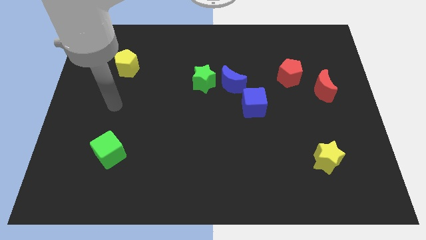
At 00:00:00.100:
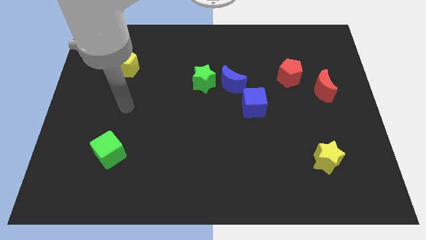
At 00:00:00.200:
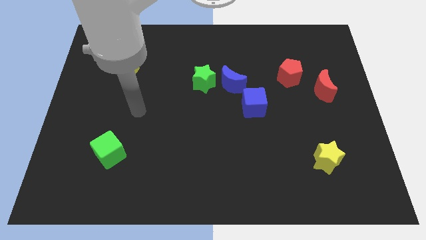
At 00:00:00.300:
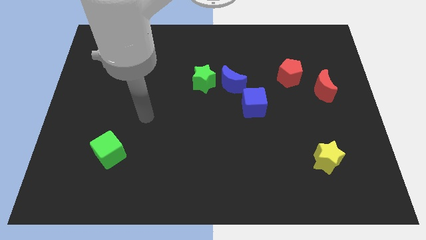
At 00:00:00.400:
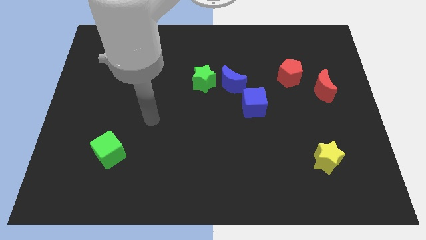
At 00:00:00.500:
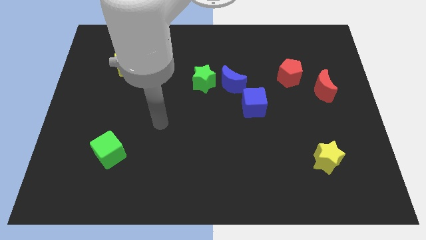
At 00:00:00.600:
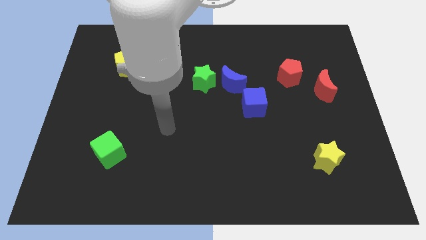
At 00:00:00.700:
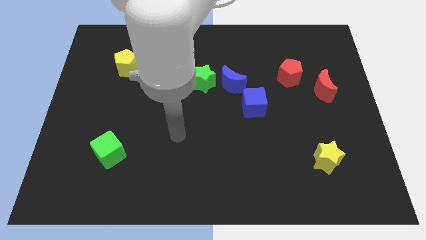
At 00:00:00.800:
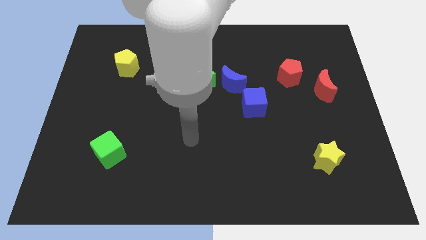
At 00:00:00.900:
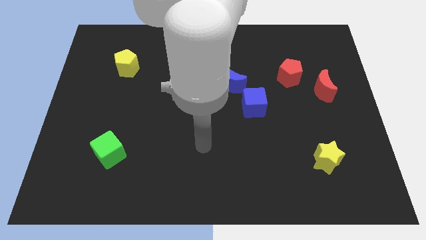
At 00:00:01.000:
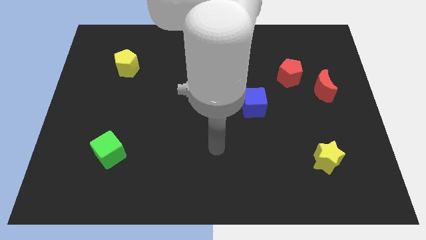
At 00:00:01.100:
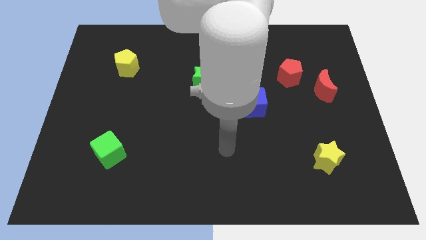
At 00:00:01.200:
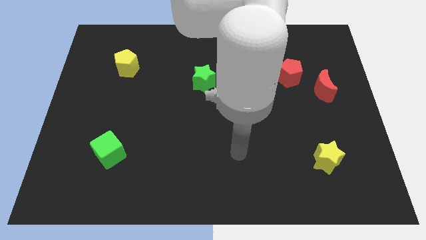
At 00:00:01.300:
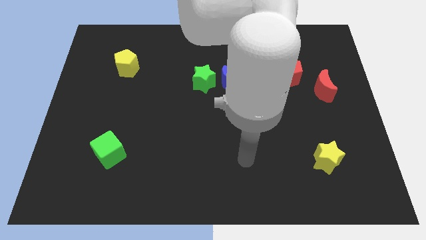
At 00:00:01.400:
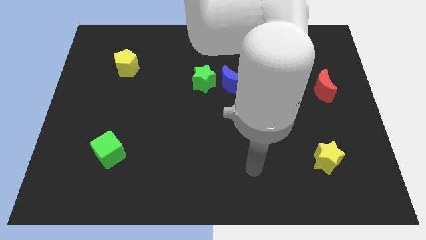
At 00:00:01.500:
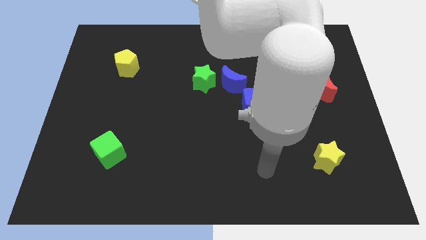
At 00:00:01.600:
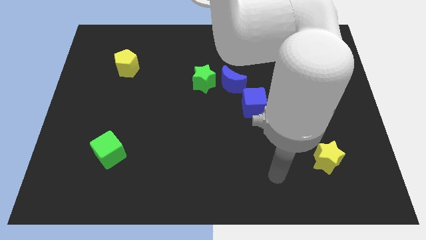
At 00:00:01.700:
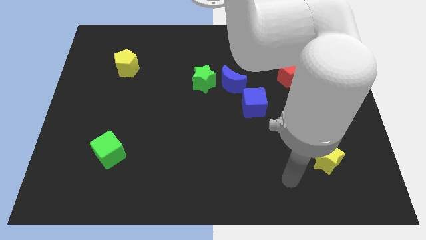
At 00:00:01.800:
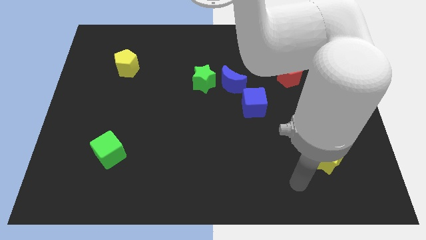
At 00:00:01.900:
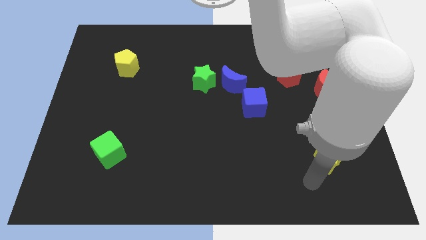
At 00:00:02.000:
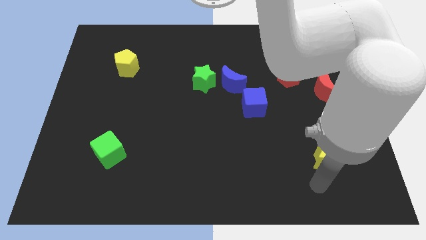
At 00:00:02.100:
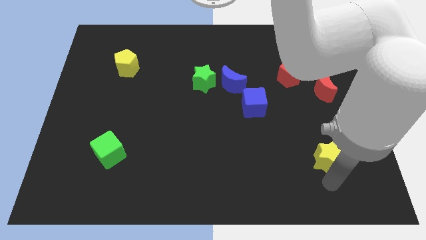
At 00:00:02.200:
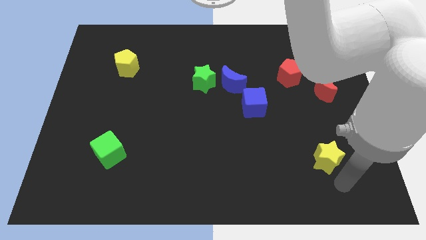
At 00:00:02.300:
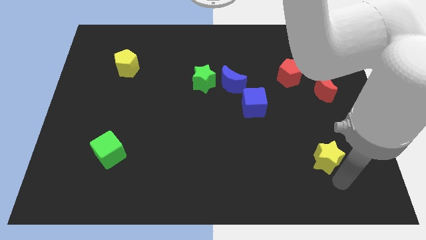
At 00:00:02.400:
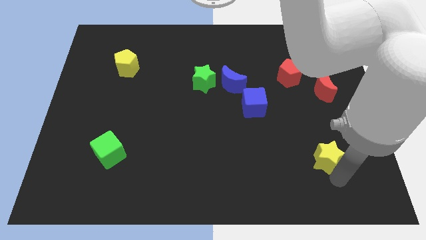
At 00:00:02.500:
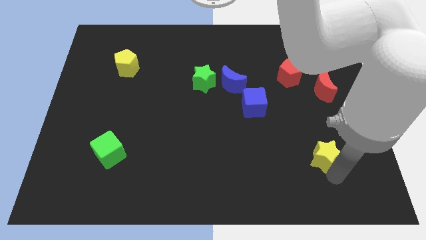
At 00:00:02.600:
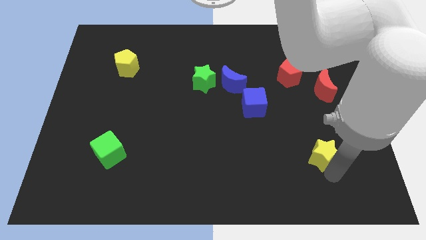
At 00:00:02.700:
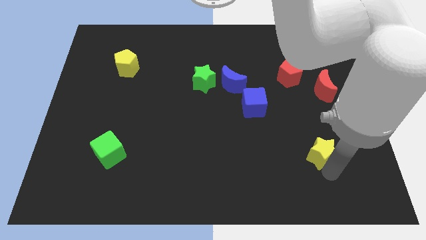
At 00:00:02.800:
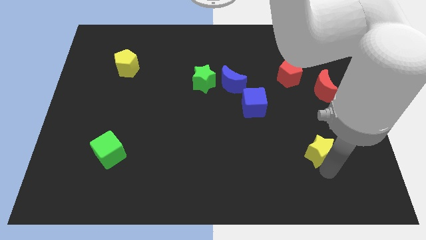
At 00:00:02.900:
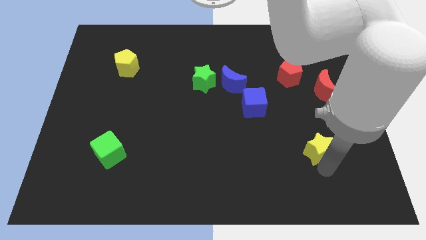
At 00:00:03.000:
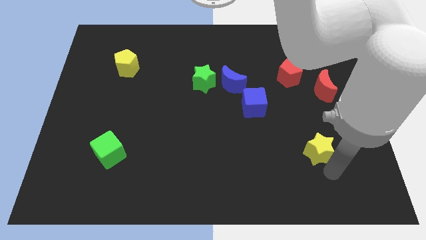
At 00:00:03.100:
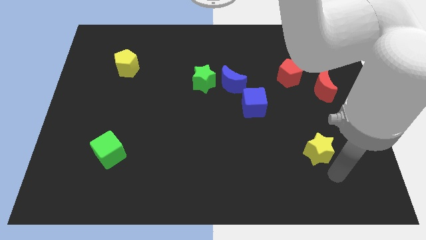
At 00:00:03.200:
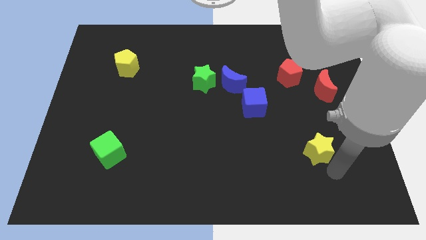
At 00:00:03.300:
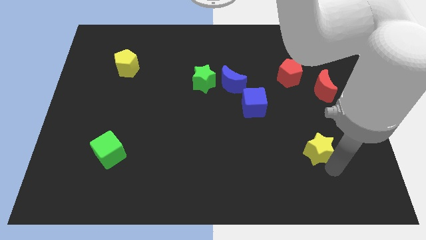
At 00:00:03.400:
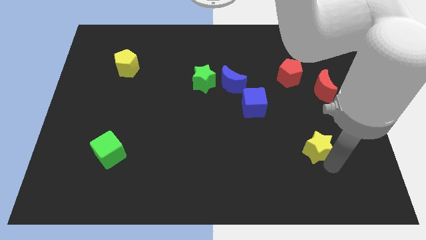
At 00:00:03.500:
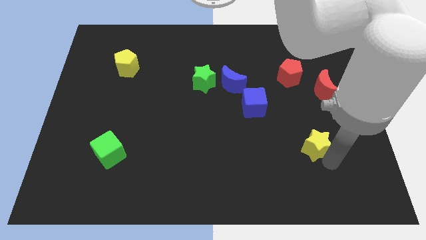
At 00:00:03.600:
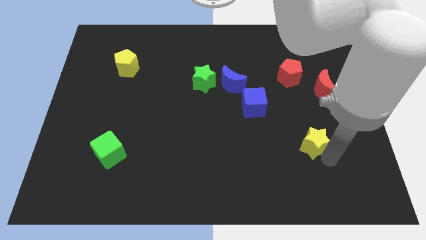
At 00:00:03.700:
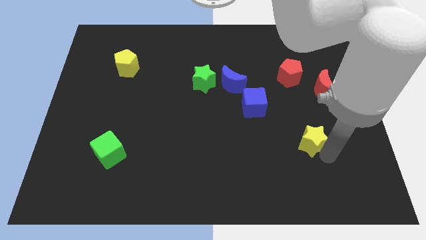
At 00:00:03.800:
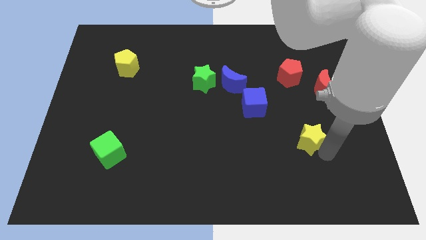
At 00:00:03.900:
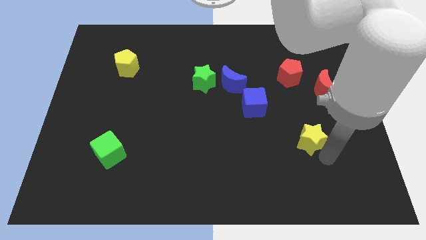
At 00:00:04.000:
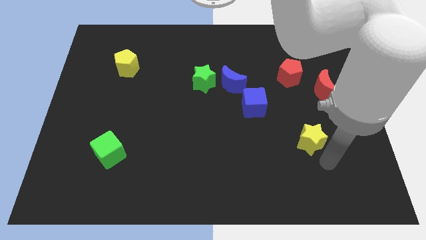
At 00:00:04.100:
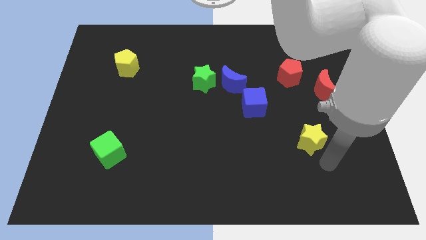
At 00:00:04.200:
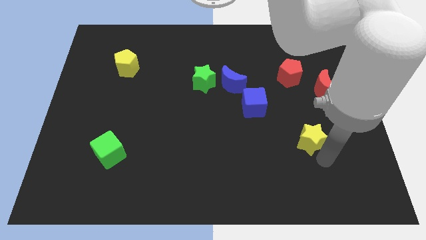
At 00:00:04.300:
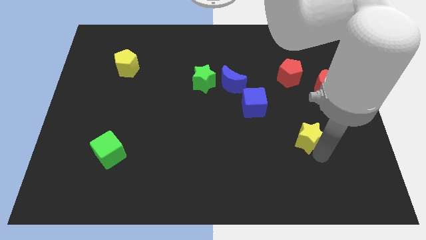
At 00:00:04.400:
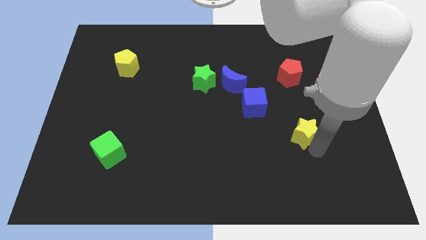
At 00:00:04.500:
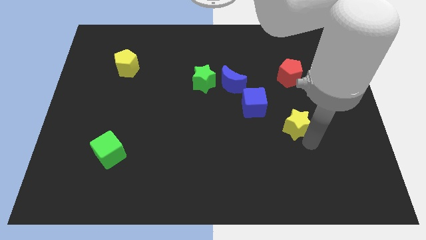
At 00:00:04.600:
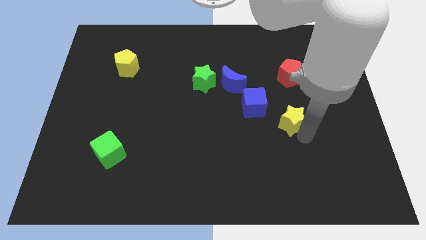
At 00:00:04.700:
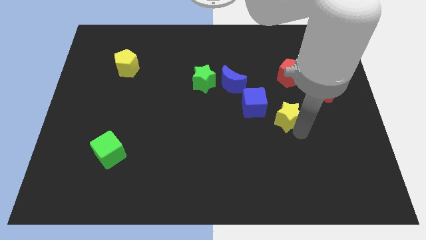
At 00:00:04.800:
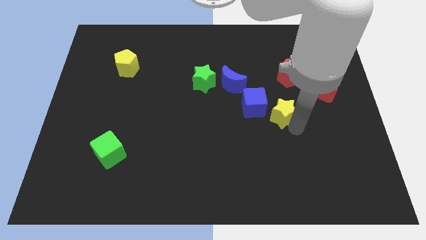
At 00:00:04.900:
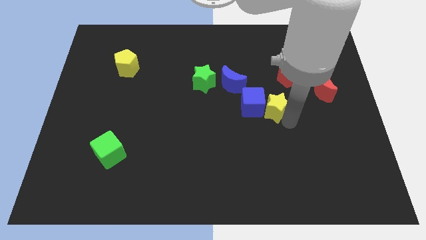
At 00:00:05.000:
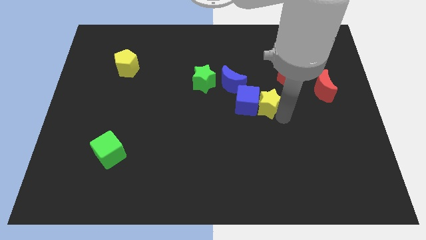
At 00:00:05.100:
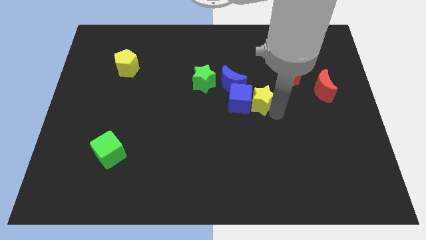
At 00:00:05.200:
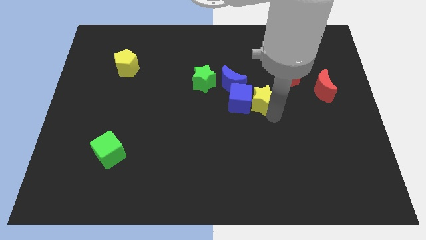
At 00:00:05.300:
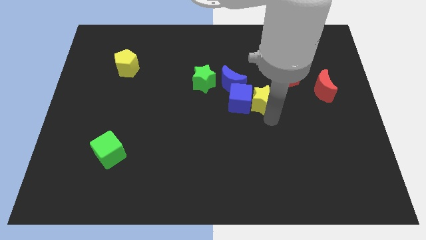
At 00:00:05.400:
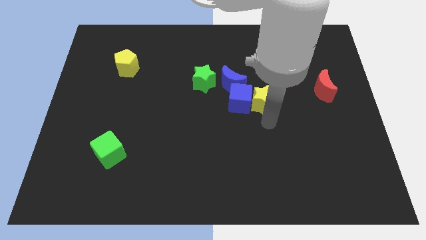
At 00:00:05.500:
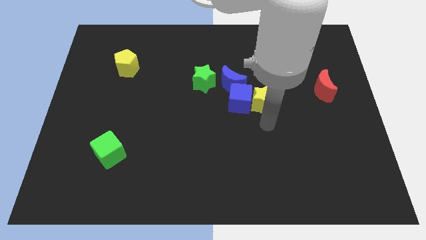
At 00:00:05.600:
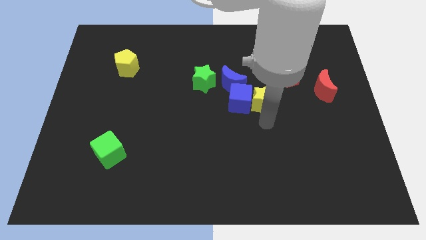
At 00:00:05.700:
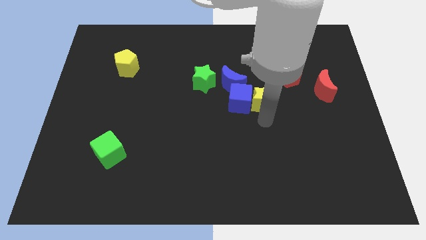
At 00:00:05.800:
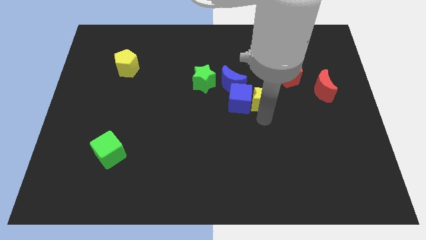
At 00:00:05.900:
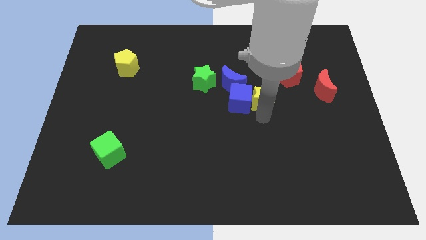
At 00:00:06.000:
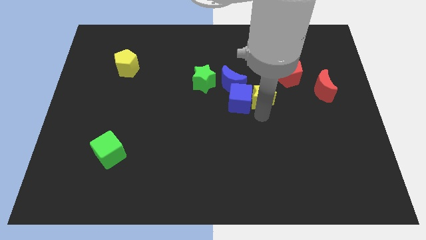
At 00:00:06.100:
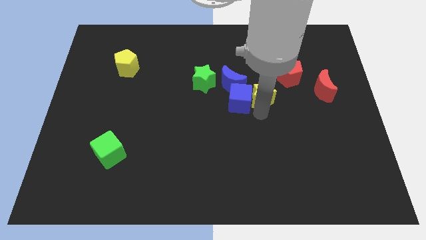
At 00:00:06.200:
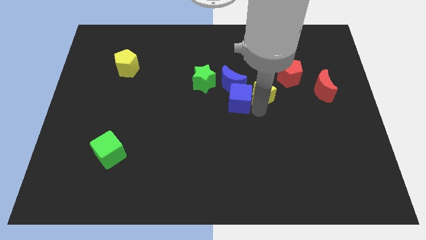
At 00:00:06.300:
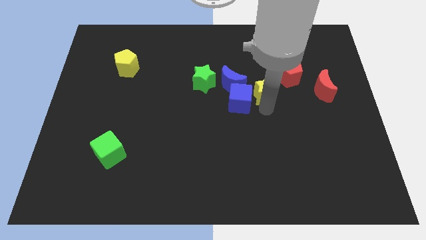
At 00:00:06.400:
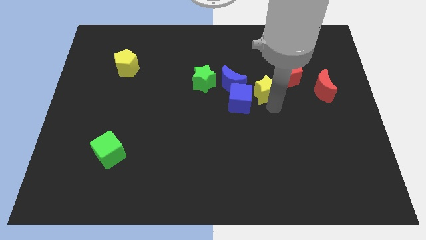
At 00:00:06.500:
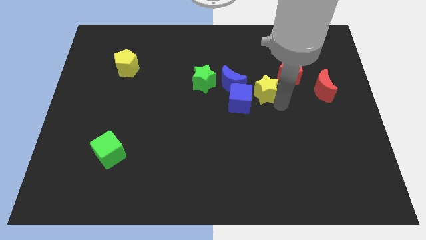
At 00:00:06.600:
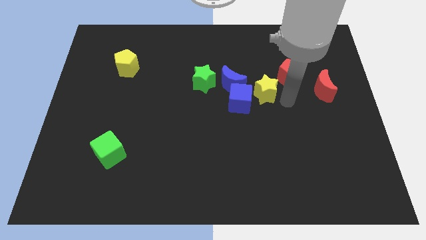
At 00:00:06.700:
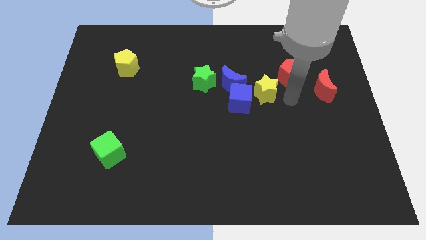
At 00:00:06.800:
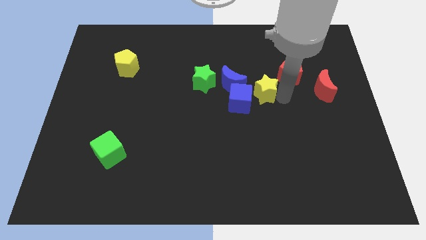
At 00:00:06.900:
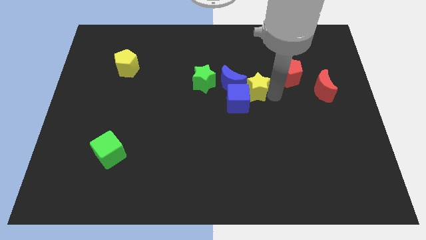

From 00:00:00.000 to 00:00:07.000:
slide the yellow star next to the blue moon
